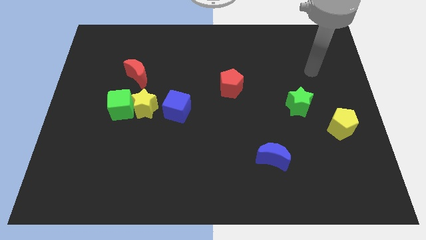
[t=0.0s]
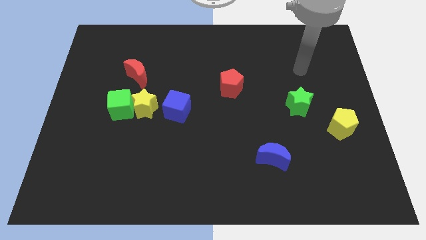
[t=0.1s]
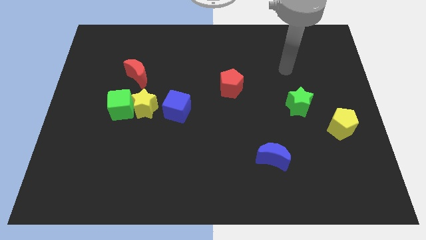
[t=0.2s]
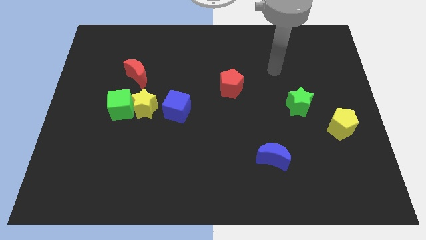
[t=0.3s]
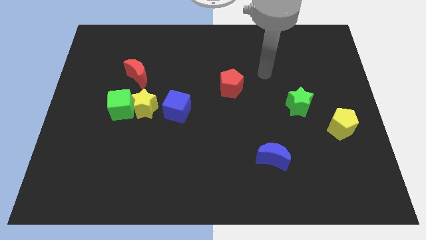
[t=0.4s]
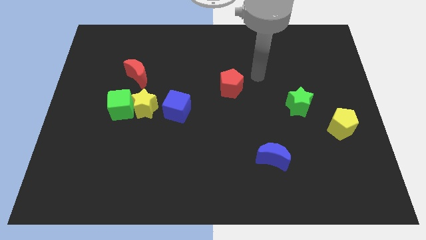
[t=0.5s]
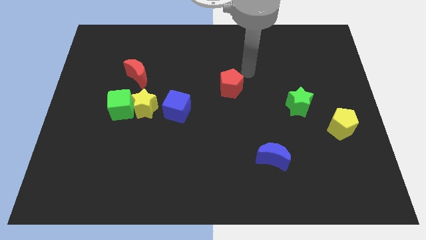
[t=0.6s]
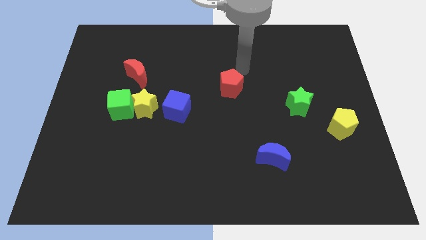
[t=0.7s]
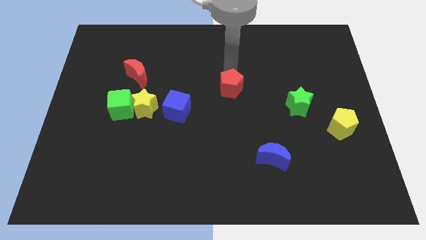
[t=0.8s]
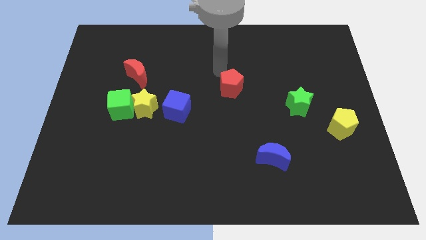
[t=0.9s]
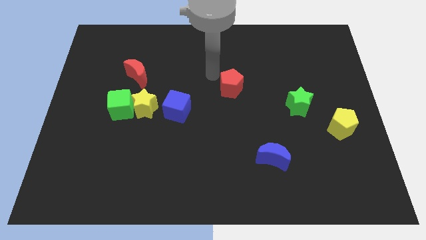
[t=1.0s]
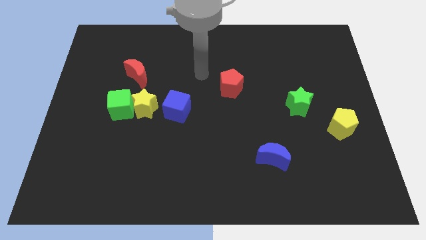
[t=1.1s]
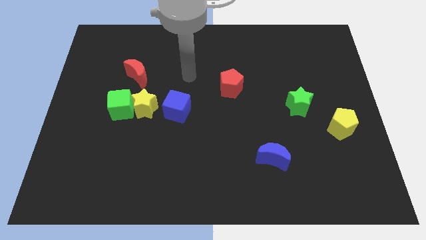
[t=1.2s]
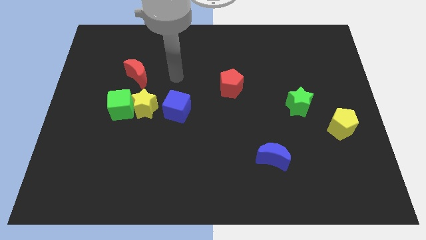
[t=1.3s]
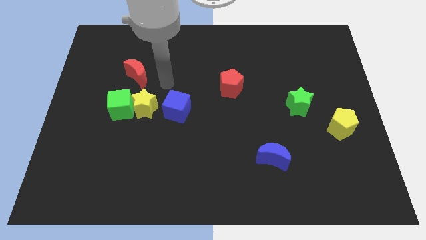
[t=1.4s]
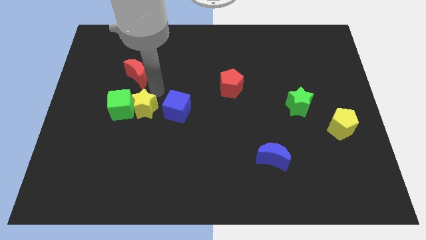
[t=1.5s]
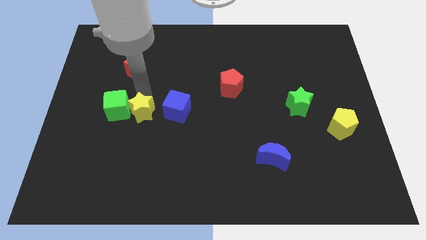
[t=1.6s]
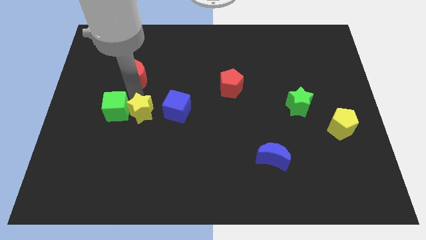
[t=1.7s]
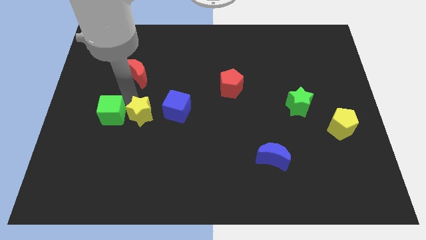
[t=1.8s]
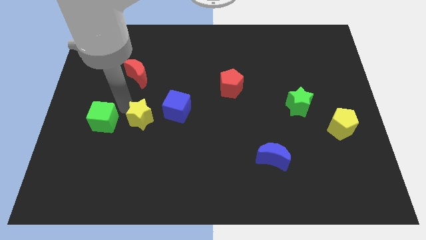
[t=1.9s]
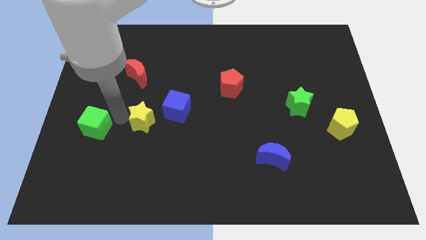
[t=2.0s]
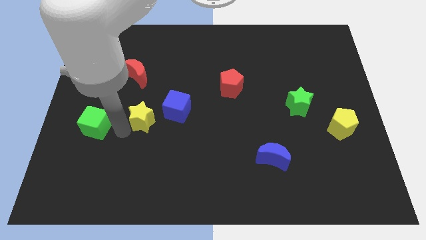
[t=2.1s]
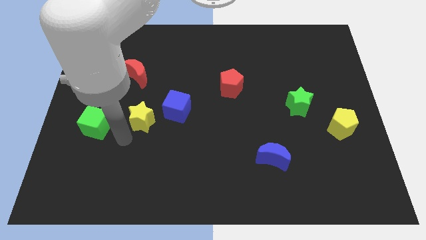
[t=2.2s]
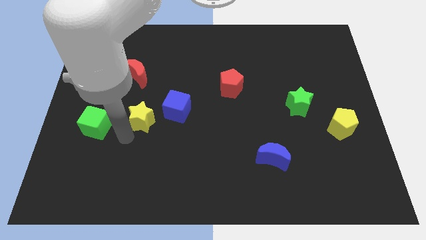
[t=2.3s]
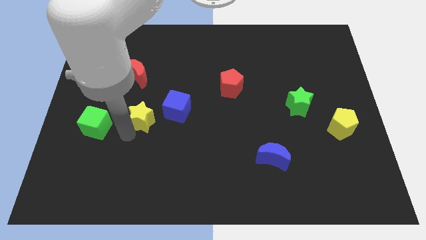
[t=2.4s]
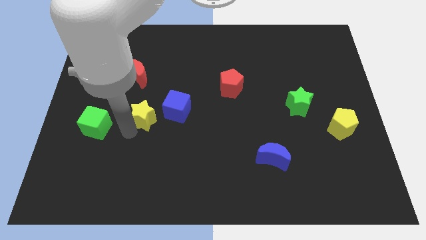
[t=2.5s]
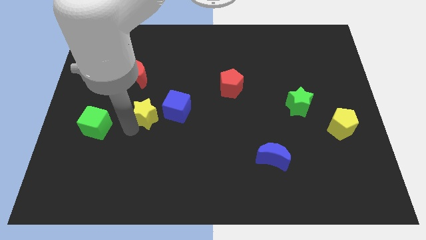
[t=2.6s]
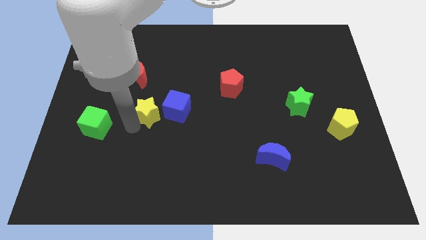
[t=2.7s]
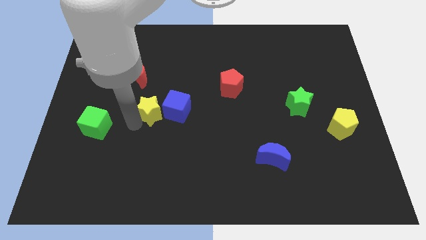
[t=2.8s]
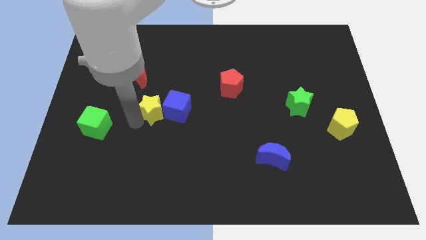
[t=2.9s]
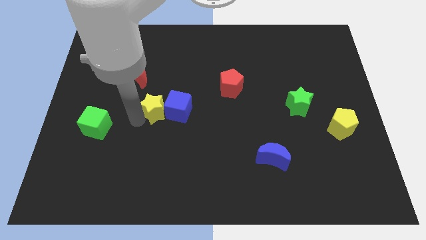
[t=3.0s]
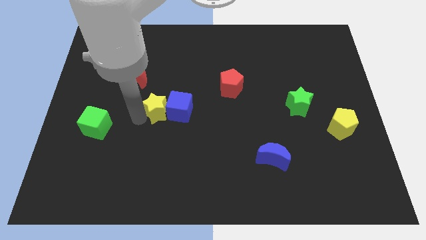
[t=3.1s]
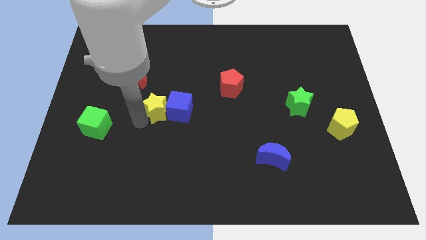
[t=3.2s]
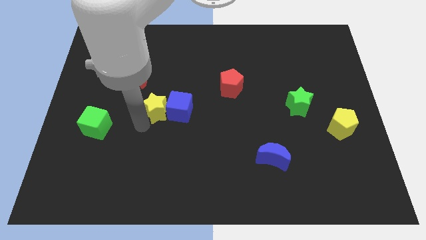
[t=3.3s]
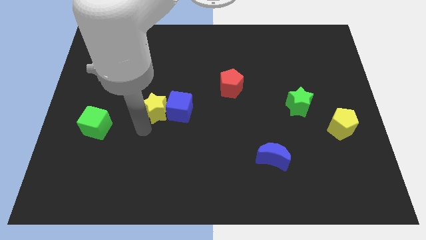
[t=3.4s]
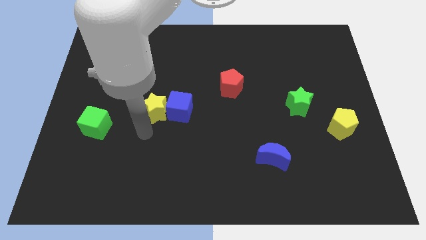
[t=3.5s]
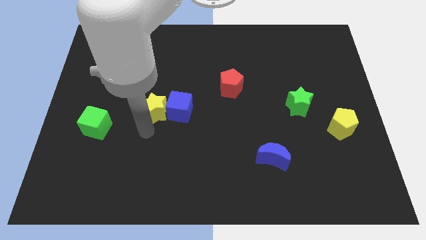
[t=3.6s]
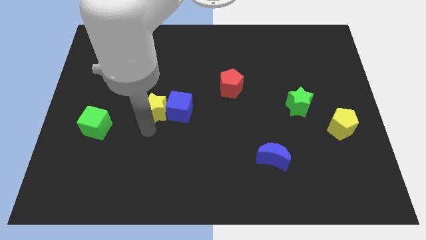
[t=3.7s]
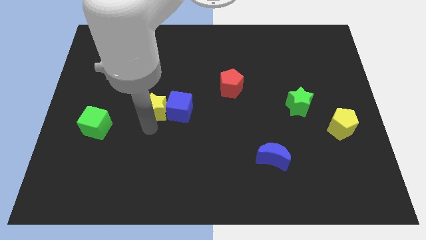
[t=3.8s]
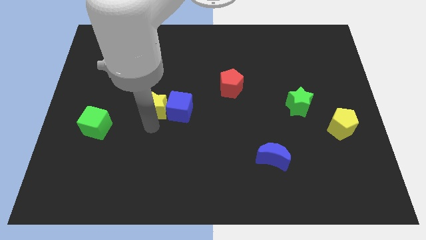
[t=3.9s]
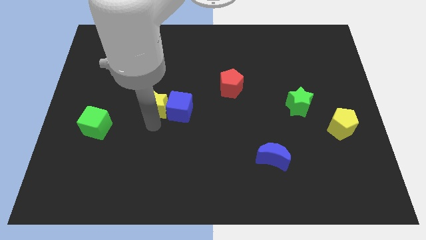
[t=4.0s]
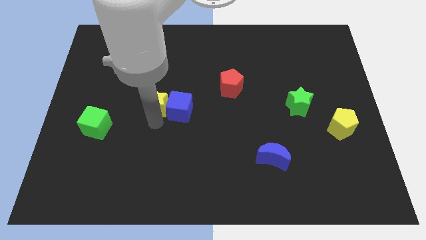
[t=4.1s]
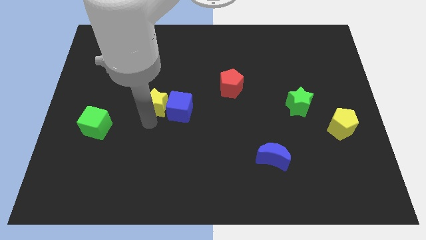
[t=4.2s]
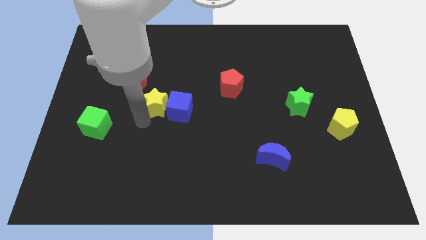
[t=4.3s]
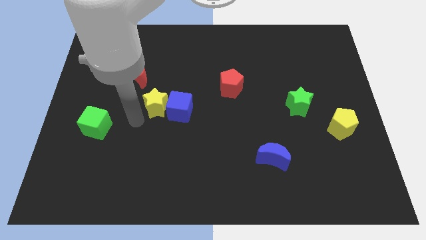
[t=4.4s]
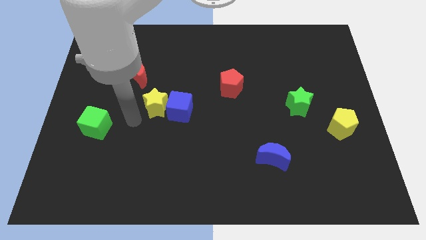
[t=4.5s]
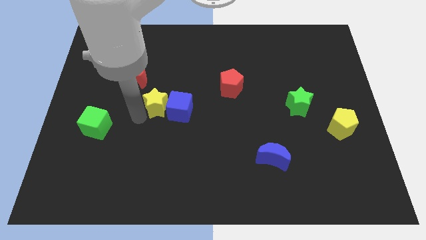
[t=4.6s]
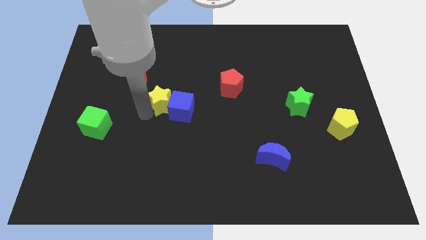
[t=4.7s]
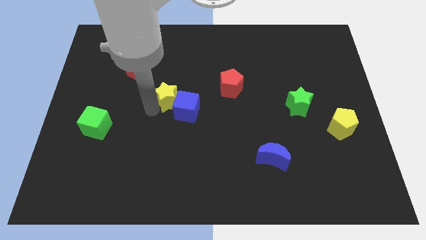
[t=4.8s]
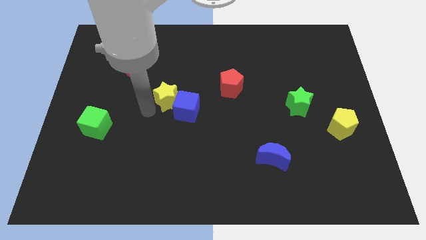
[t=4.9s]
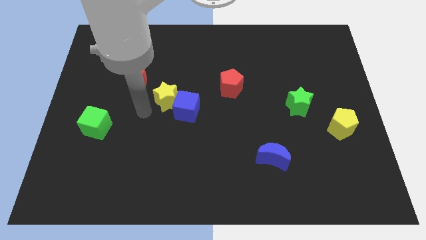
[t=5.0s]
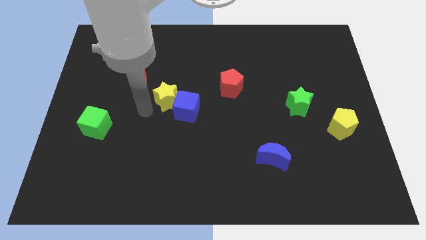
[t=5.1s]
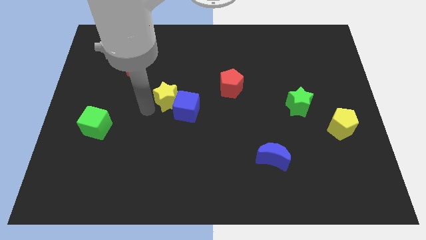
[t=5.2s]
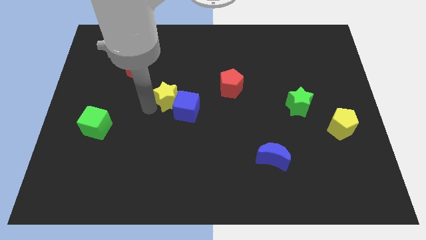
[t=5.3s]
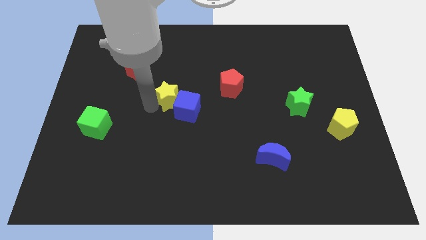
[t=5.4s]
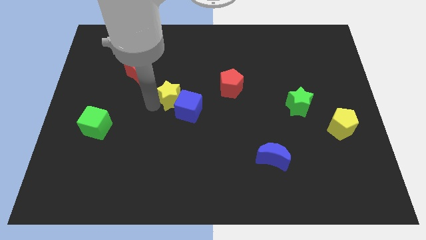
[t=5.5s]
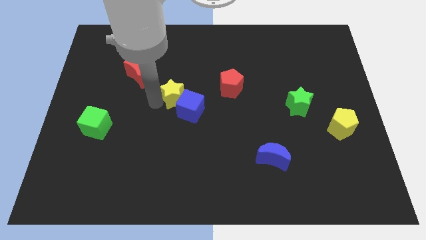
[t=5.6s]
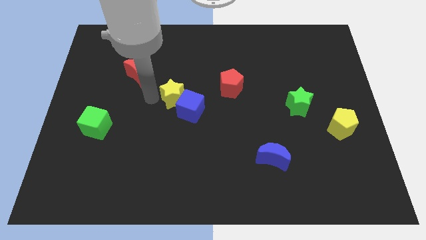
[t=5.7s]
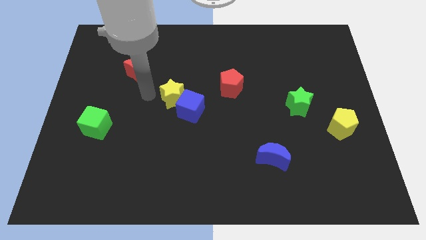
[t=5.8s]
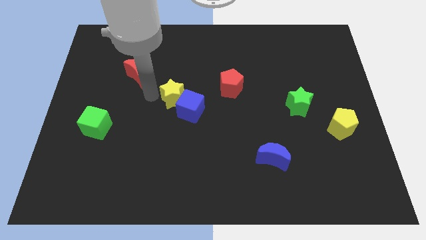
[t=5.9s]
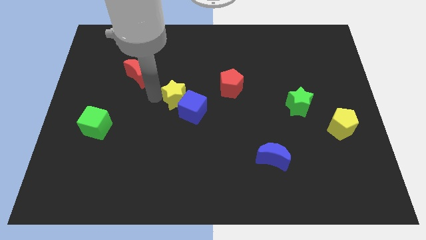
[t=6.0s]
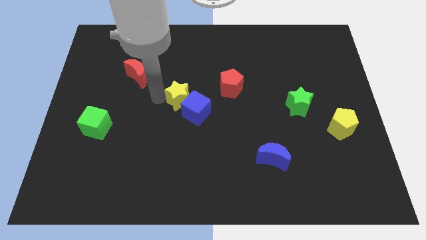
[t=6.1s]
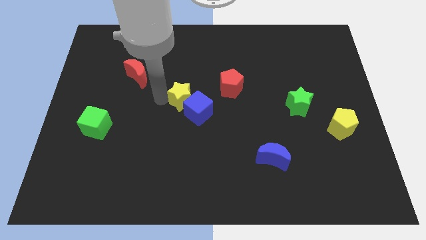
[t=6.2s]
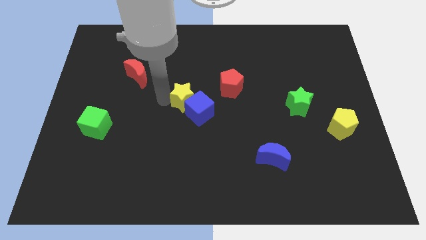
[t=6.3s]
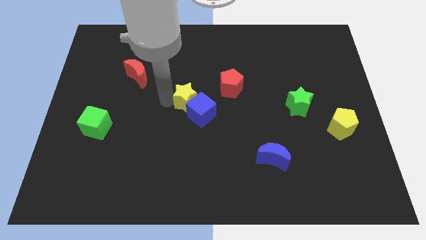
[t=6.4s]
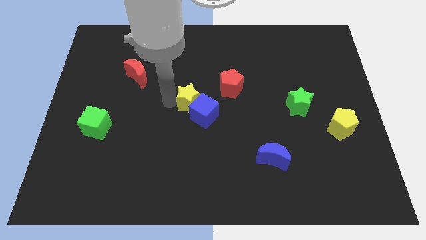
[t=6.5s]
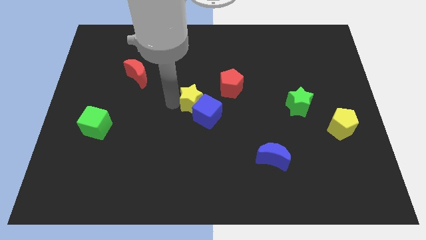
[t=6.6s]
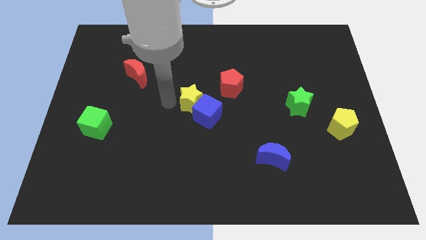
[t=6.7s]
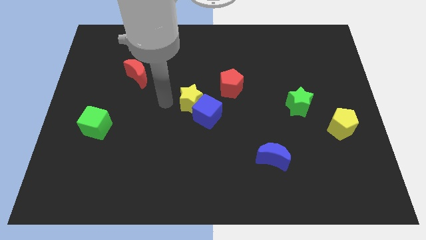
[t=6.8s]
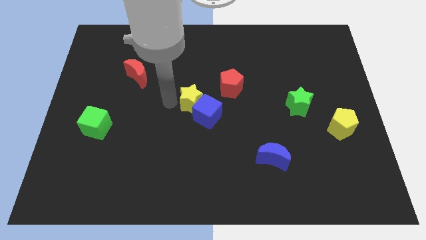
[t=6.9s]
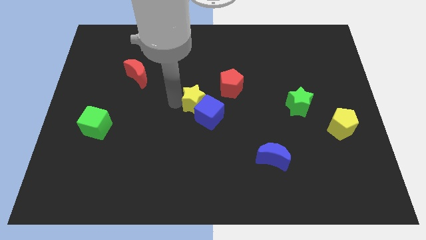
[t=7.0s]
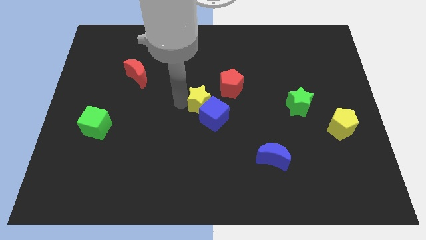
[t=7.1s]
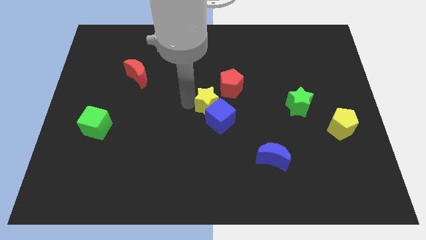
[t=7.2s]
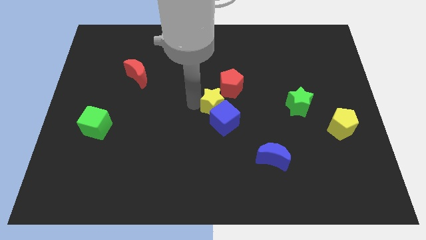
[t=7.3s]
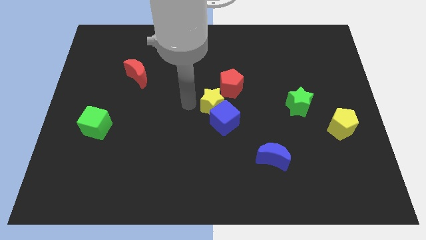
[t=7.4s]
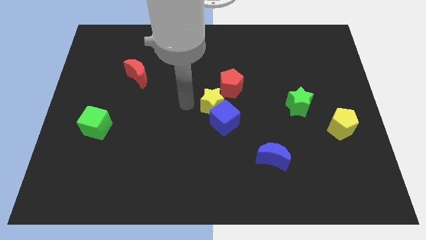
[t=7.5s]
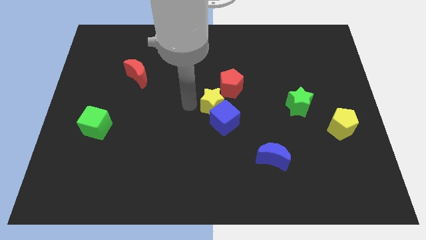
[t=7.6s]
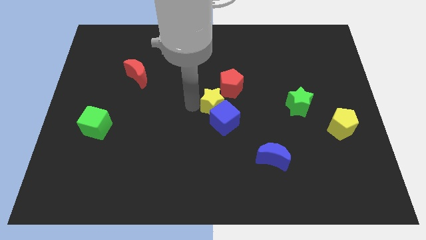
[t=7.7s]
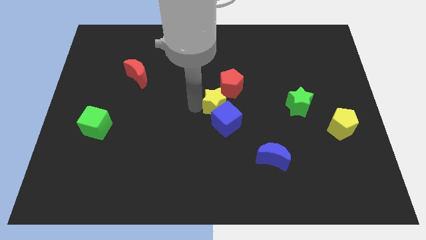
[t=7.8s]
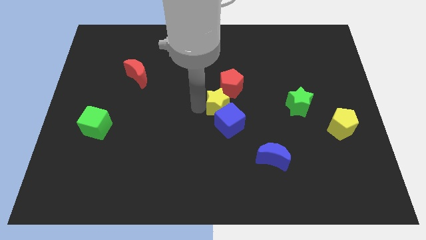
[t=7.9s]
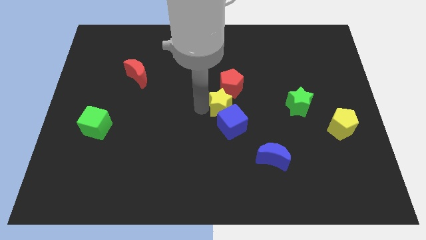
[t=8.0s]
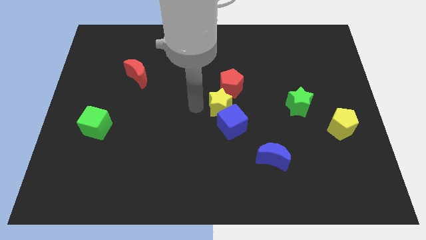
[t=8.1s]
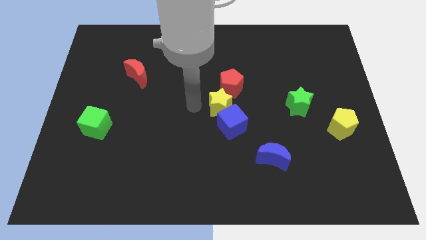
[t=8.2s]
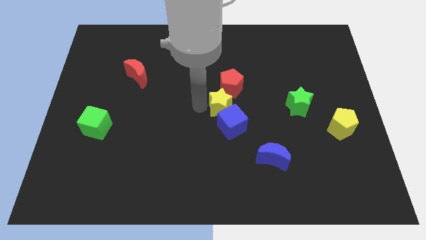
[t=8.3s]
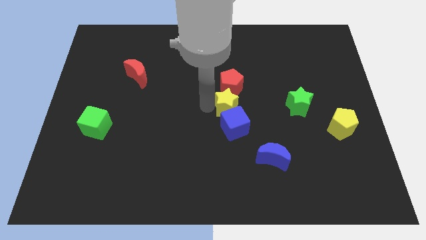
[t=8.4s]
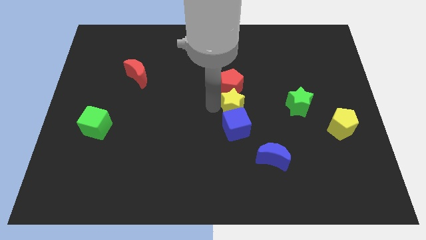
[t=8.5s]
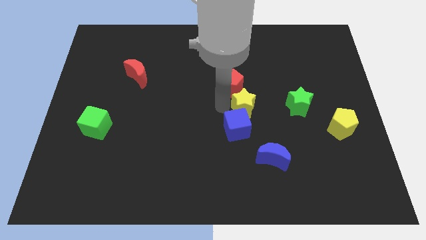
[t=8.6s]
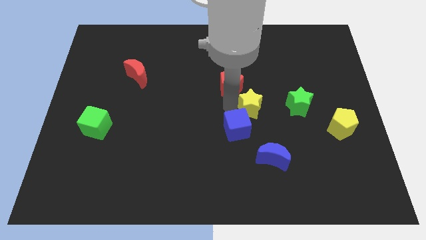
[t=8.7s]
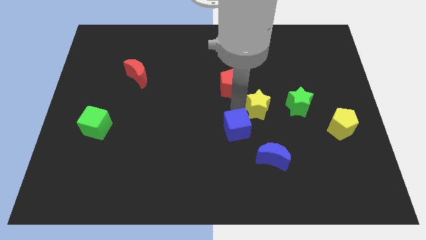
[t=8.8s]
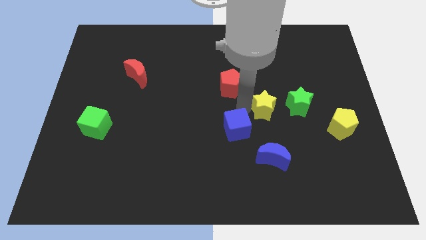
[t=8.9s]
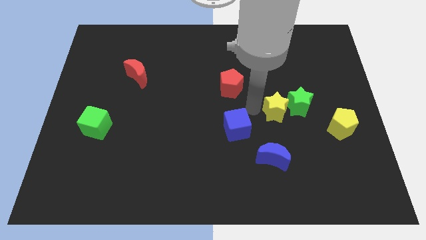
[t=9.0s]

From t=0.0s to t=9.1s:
slide the yellow star next to the green star
